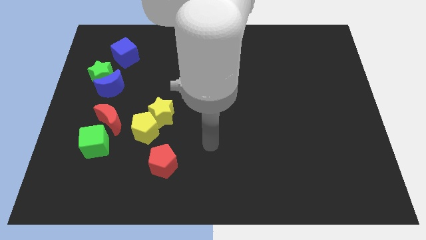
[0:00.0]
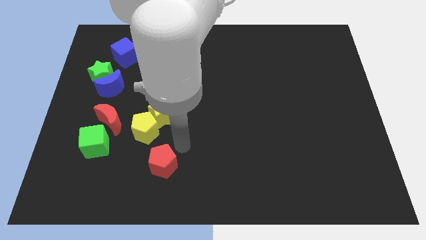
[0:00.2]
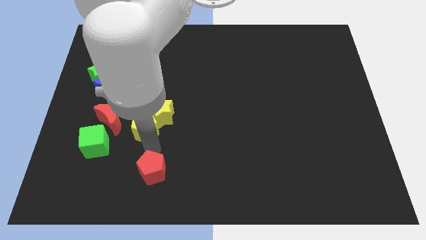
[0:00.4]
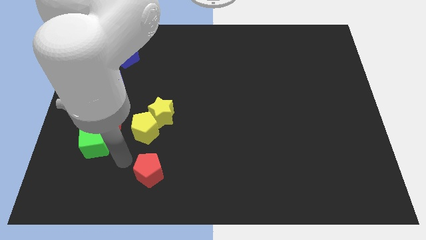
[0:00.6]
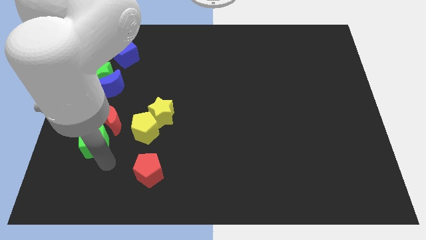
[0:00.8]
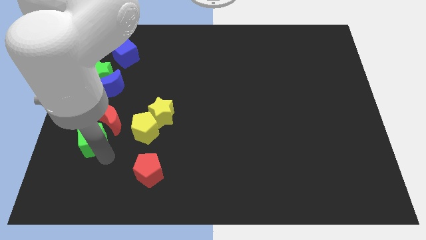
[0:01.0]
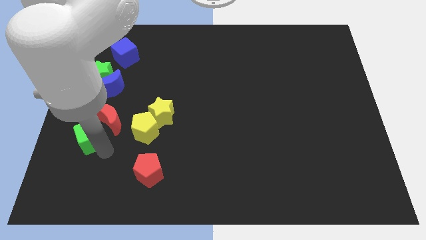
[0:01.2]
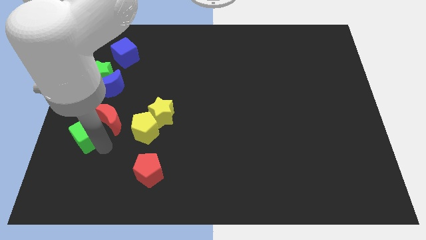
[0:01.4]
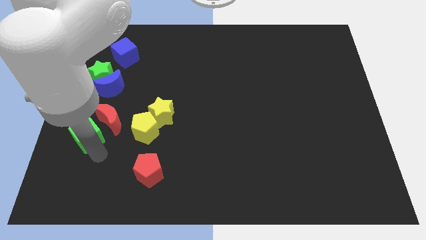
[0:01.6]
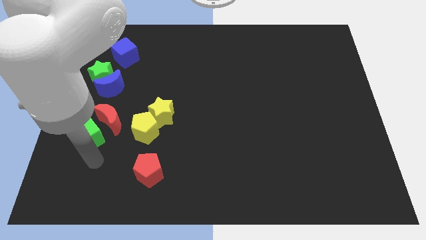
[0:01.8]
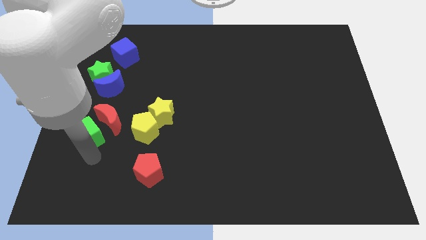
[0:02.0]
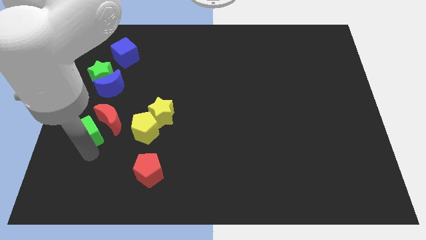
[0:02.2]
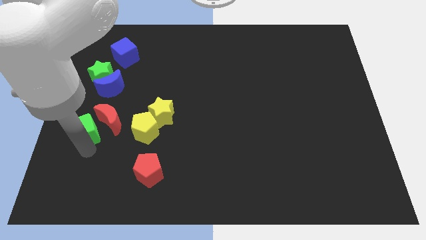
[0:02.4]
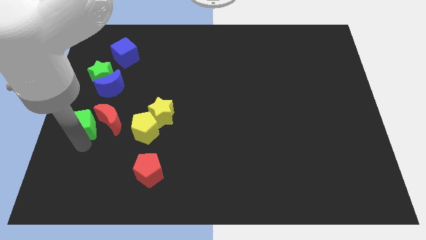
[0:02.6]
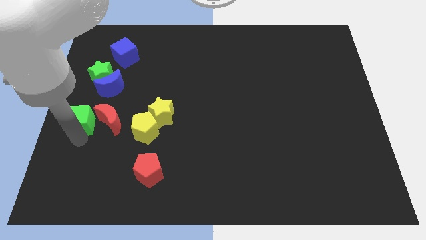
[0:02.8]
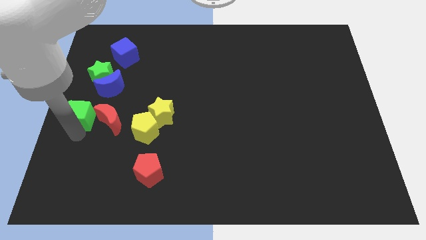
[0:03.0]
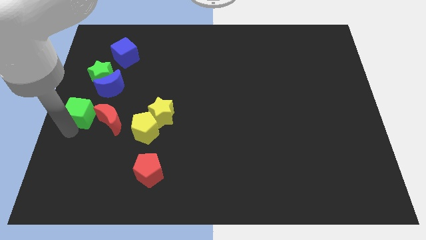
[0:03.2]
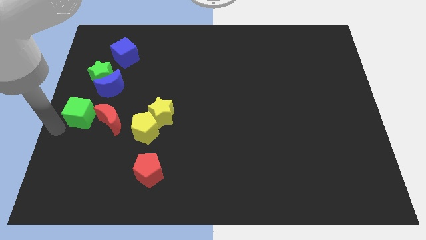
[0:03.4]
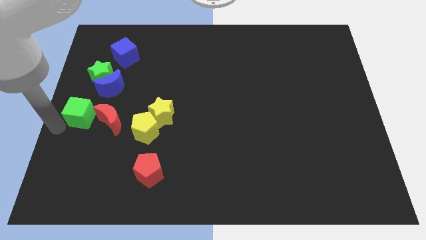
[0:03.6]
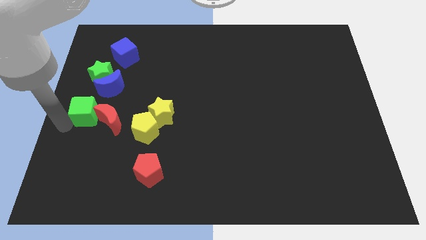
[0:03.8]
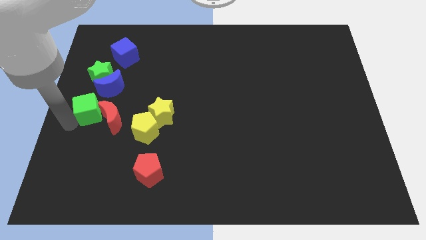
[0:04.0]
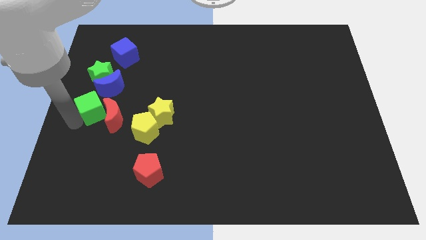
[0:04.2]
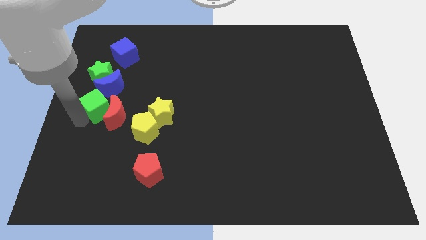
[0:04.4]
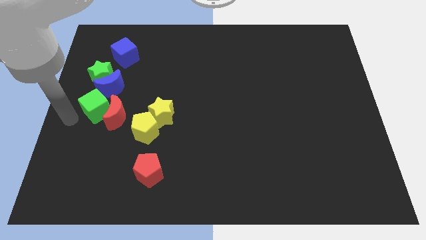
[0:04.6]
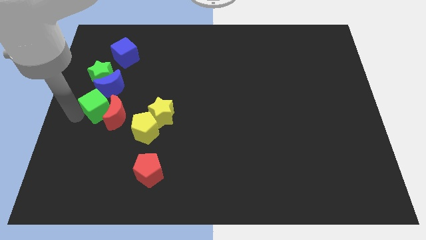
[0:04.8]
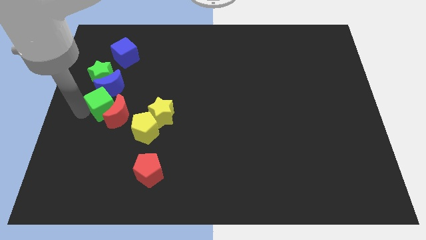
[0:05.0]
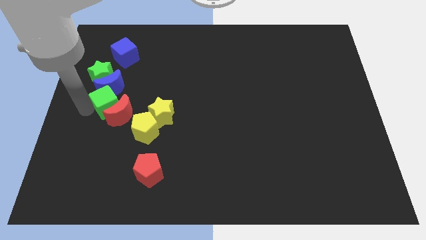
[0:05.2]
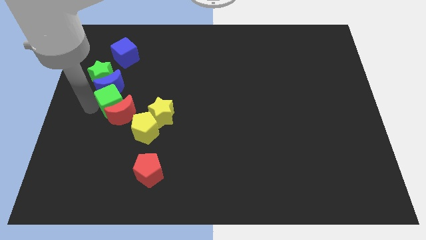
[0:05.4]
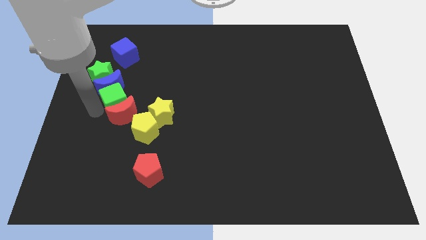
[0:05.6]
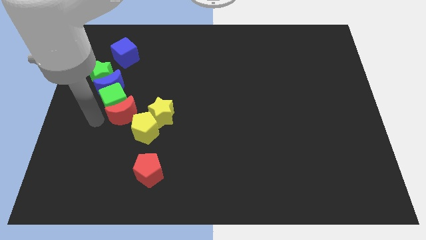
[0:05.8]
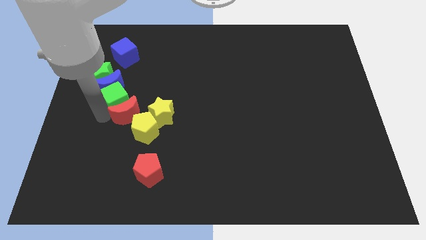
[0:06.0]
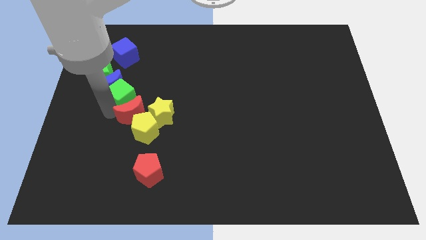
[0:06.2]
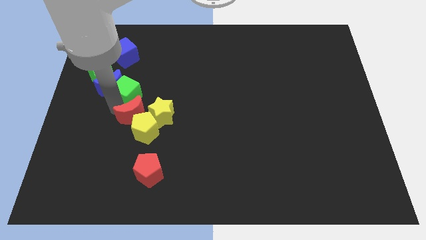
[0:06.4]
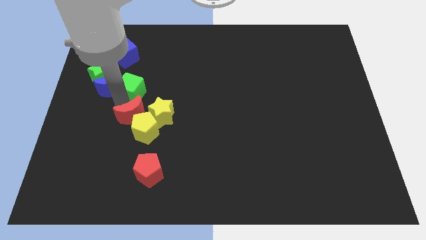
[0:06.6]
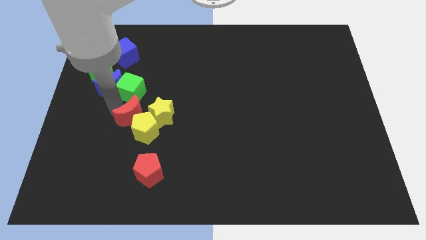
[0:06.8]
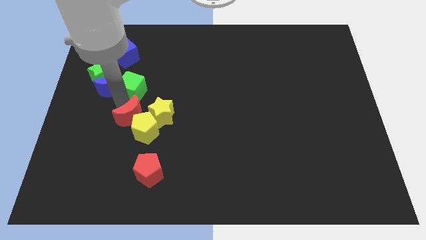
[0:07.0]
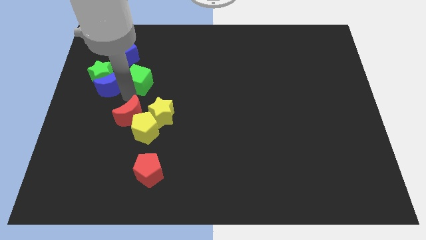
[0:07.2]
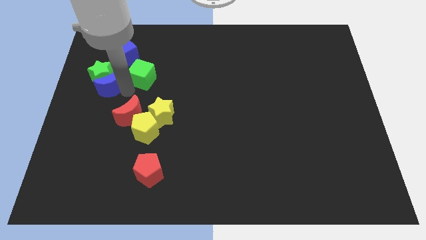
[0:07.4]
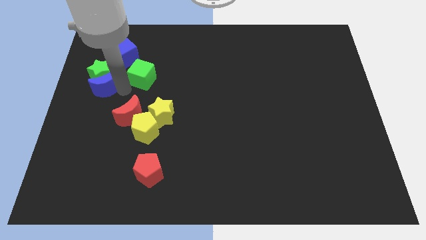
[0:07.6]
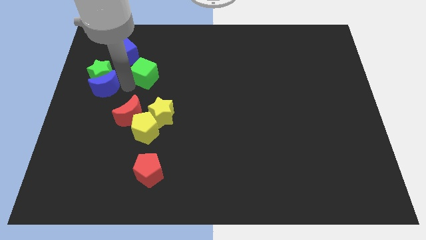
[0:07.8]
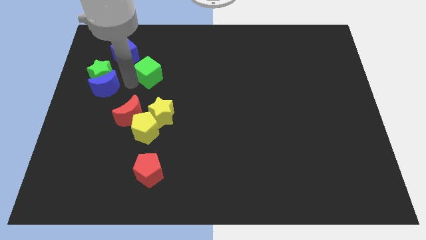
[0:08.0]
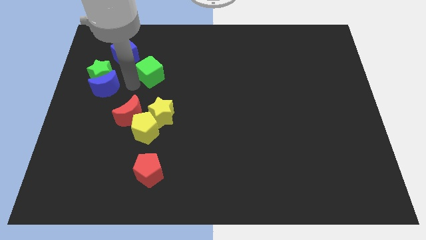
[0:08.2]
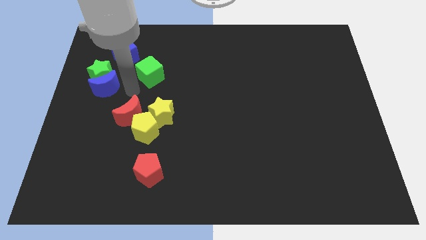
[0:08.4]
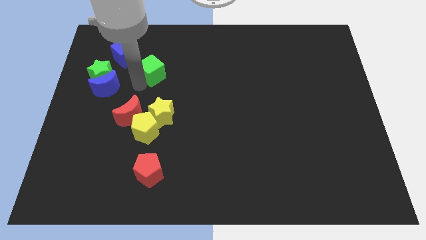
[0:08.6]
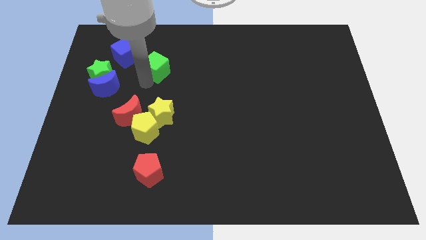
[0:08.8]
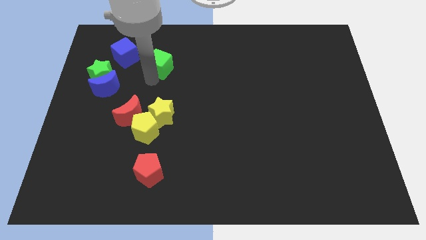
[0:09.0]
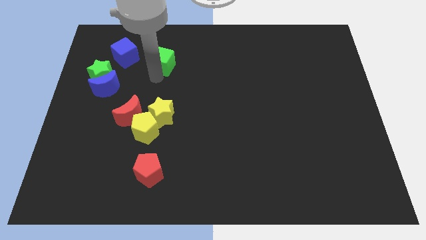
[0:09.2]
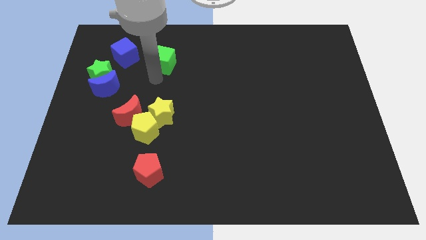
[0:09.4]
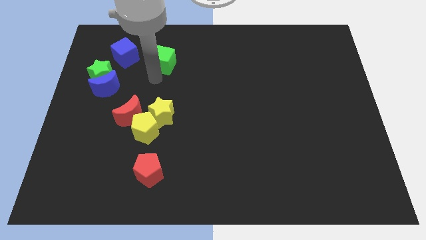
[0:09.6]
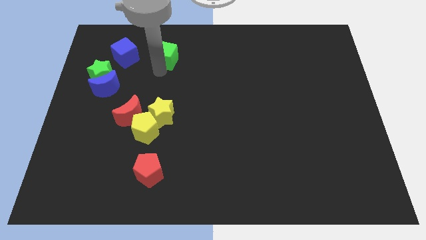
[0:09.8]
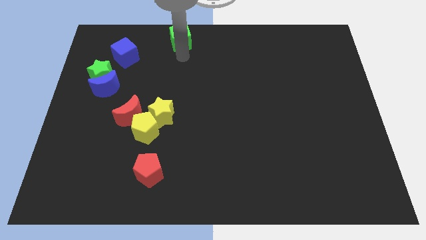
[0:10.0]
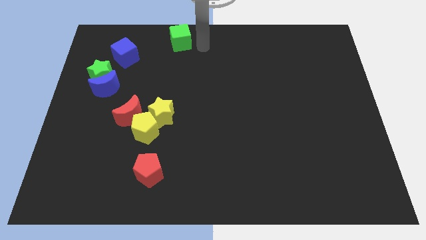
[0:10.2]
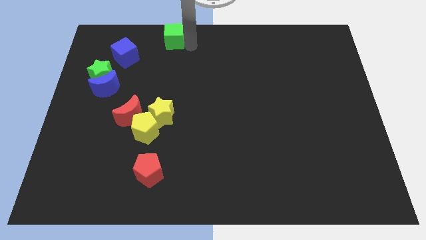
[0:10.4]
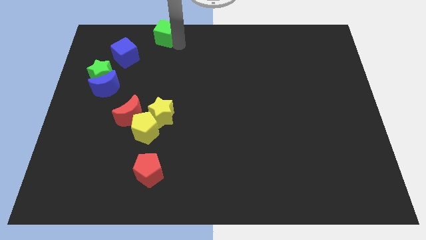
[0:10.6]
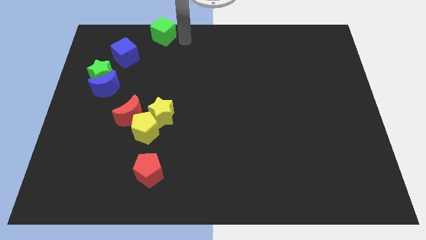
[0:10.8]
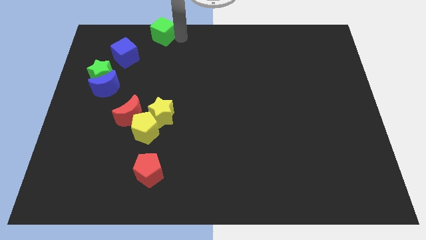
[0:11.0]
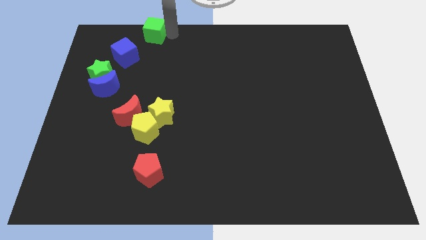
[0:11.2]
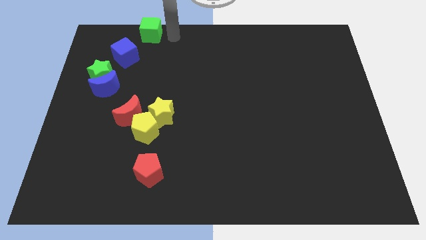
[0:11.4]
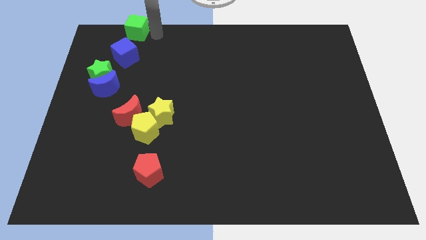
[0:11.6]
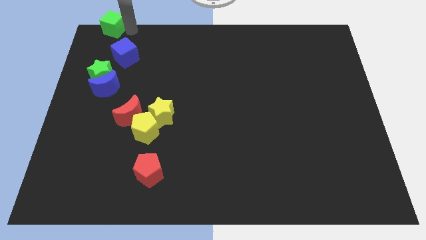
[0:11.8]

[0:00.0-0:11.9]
slide the green cube to the top left corner
